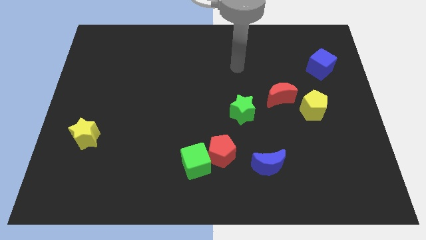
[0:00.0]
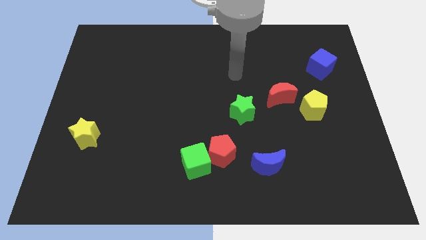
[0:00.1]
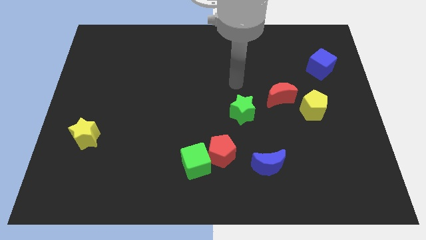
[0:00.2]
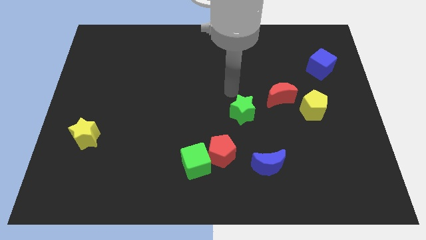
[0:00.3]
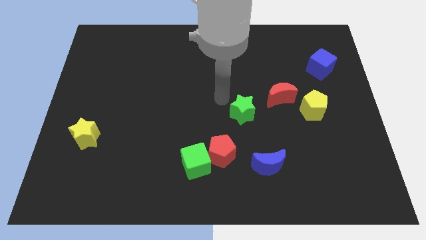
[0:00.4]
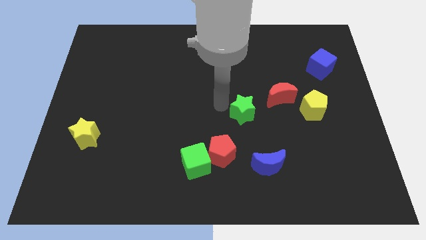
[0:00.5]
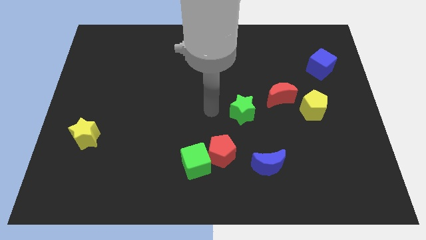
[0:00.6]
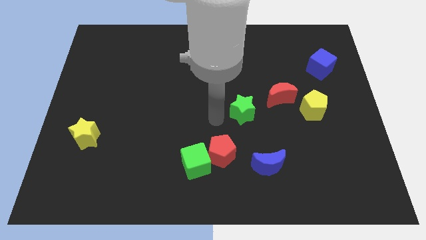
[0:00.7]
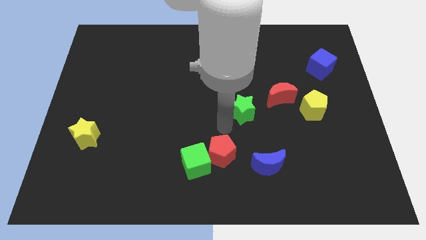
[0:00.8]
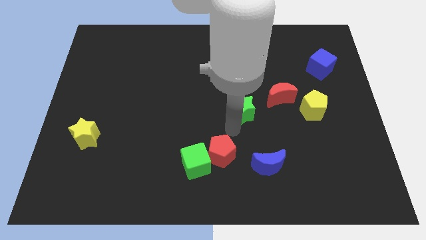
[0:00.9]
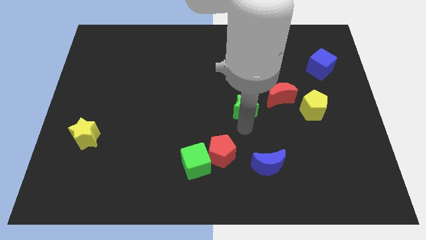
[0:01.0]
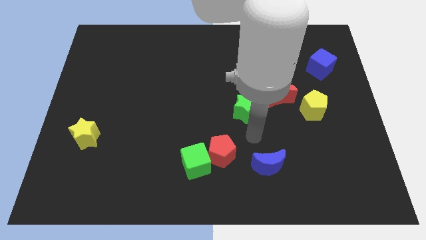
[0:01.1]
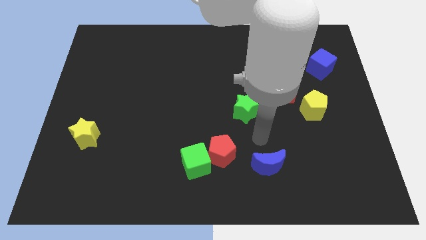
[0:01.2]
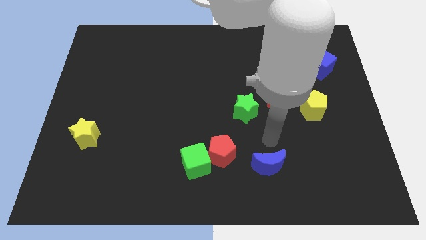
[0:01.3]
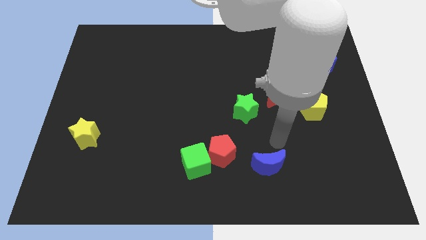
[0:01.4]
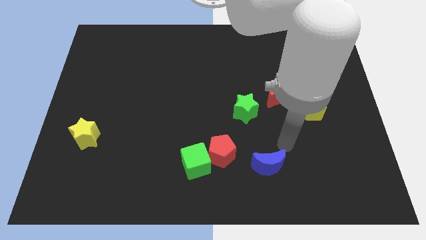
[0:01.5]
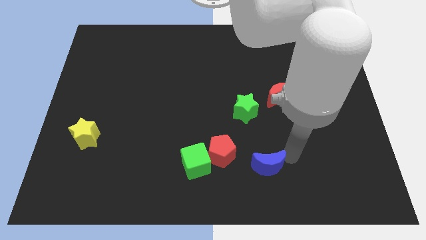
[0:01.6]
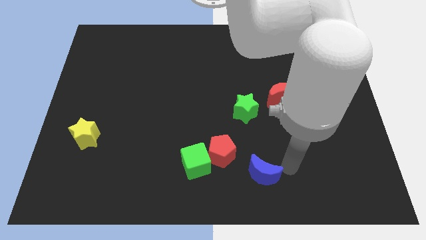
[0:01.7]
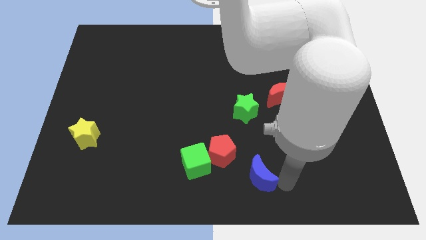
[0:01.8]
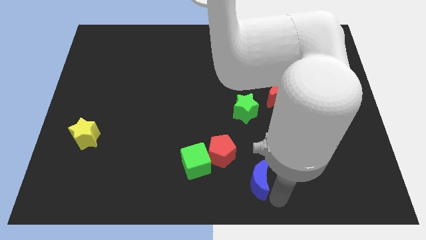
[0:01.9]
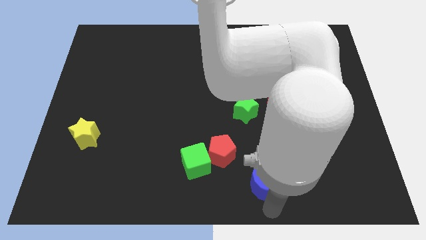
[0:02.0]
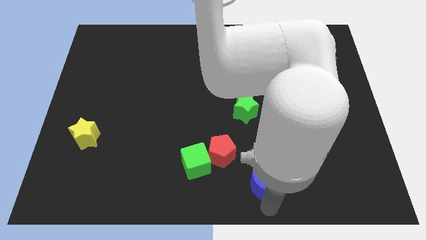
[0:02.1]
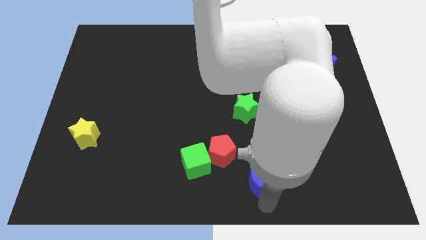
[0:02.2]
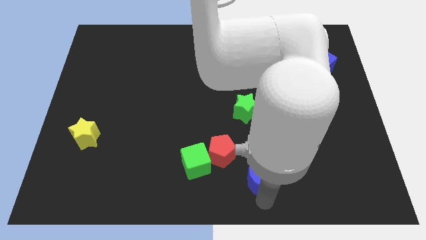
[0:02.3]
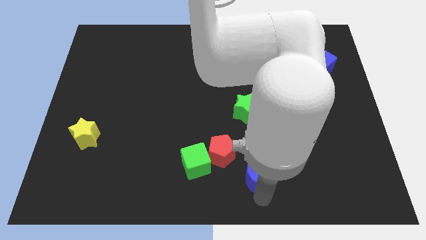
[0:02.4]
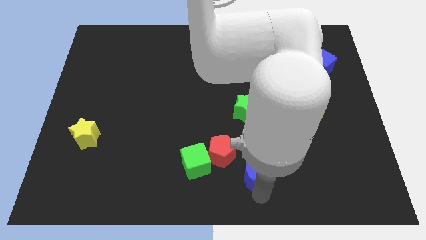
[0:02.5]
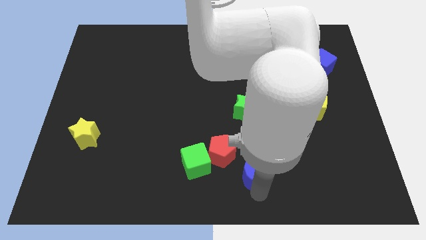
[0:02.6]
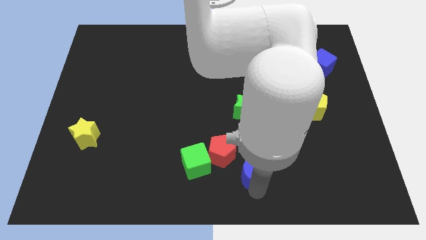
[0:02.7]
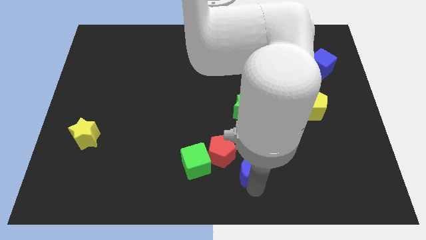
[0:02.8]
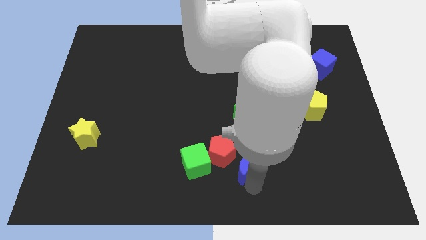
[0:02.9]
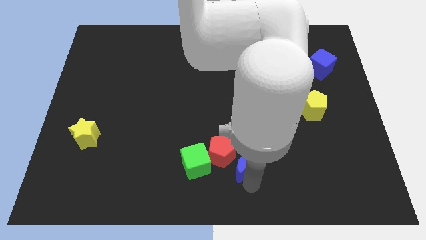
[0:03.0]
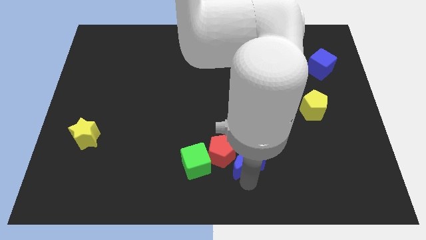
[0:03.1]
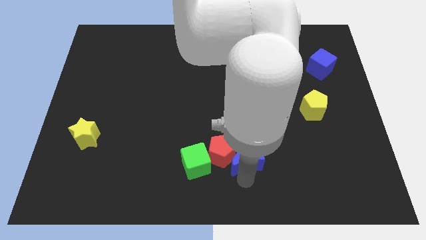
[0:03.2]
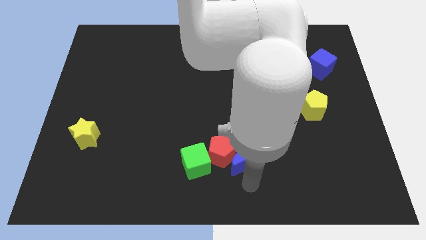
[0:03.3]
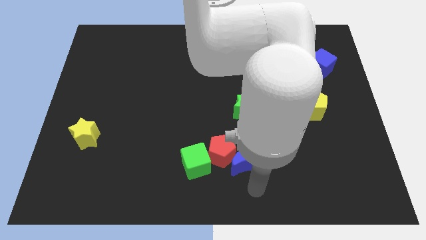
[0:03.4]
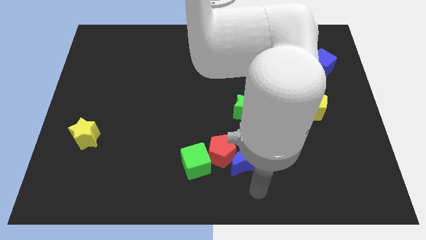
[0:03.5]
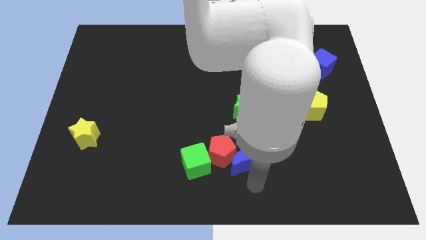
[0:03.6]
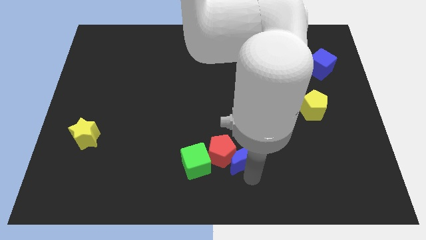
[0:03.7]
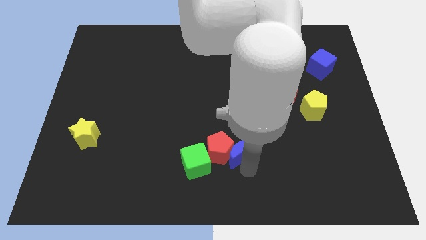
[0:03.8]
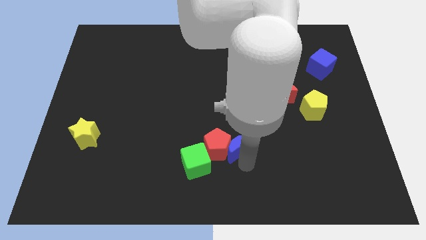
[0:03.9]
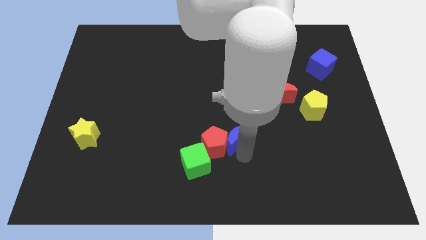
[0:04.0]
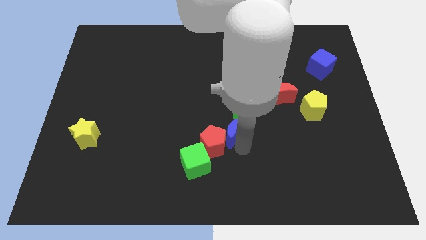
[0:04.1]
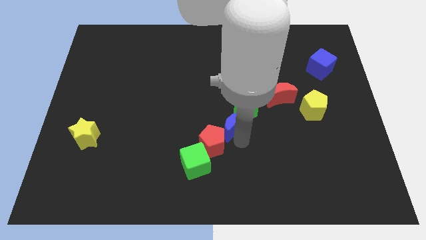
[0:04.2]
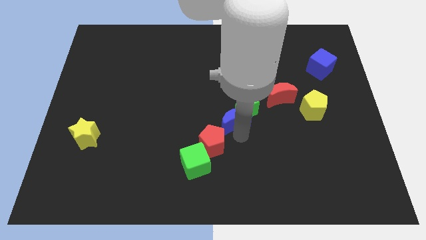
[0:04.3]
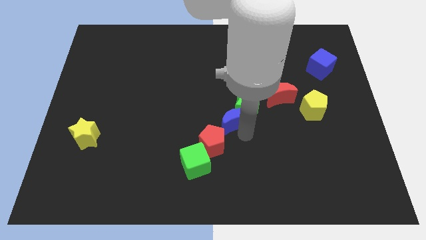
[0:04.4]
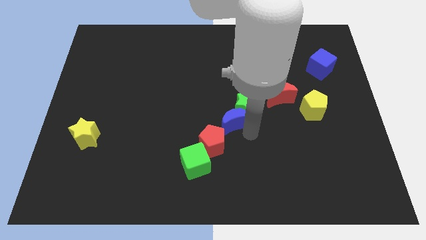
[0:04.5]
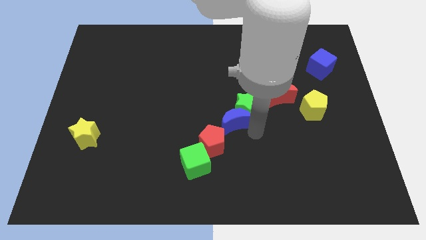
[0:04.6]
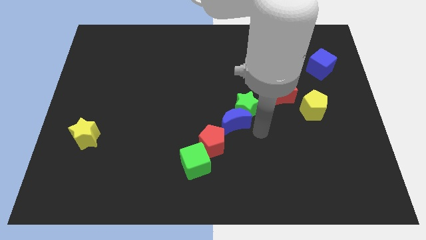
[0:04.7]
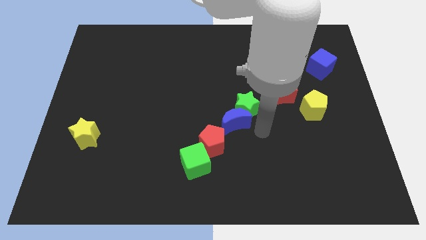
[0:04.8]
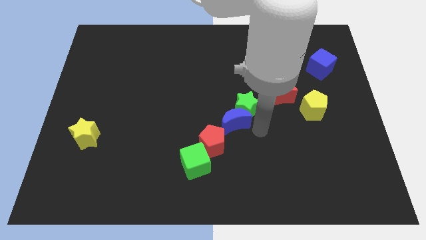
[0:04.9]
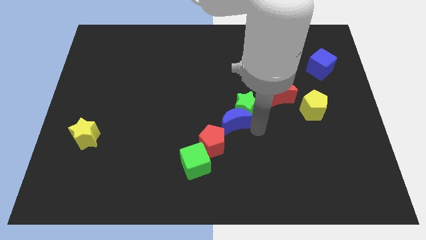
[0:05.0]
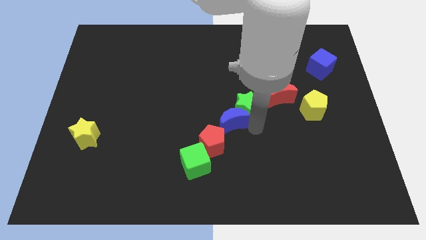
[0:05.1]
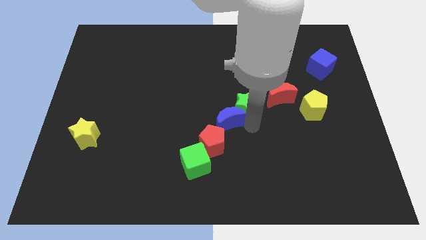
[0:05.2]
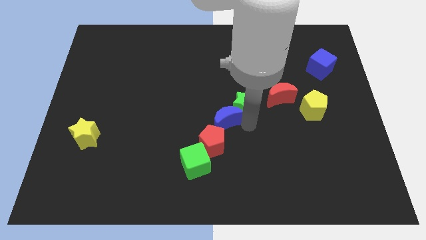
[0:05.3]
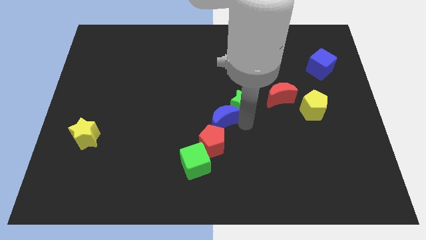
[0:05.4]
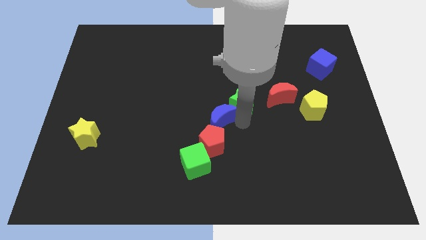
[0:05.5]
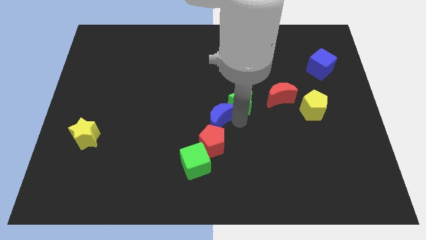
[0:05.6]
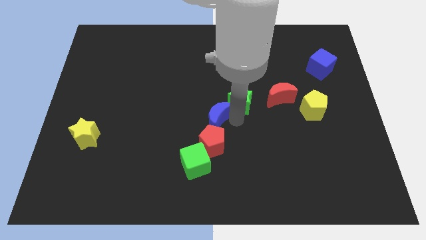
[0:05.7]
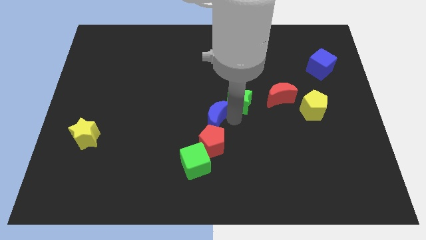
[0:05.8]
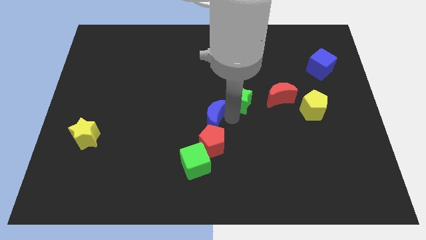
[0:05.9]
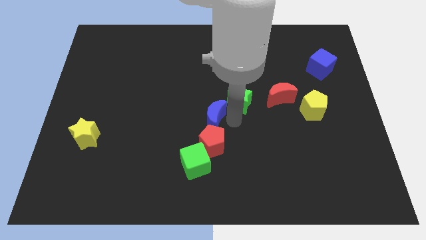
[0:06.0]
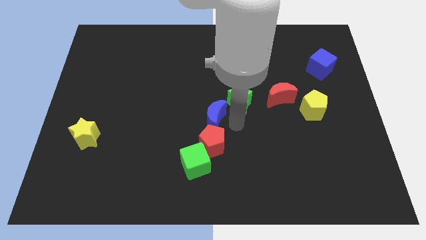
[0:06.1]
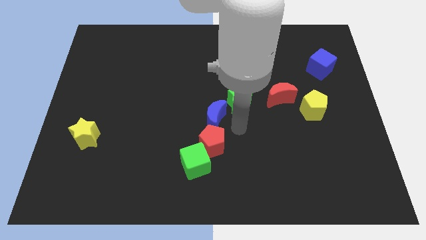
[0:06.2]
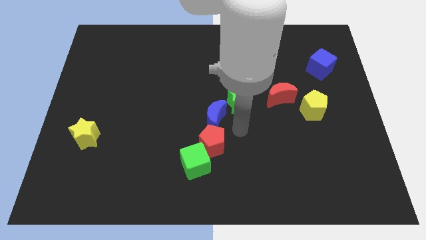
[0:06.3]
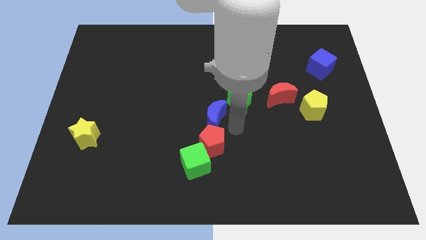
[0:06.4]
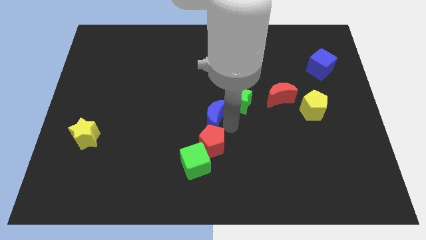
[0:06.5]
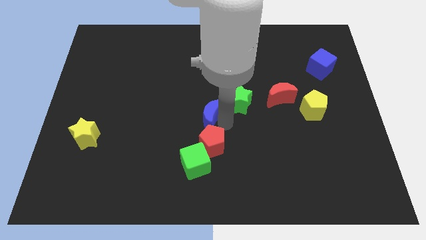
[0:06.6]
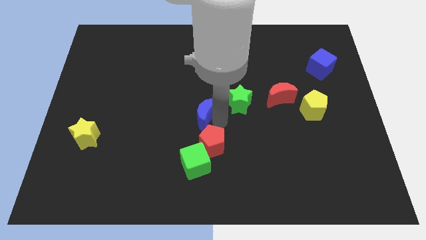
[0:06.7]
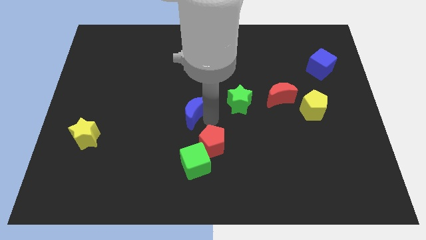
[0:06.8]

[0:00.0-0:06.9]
push the blue moon upwards and left

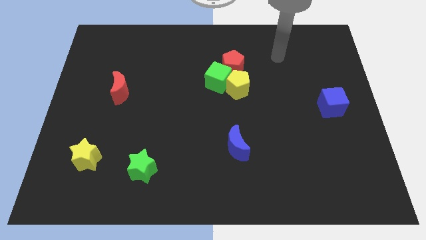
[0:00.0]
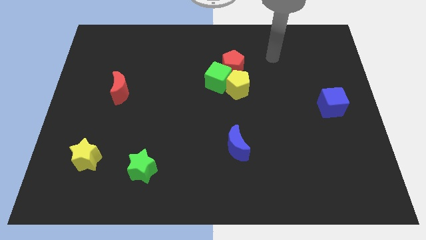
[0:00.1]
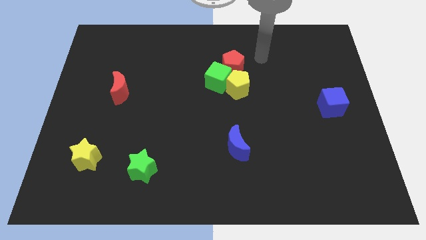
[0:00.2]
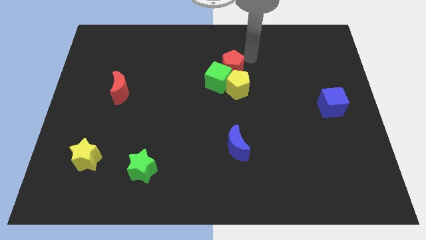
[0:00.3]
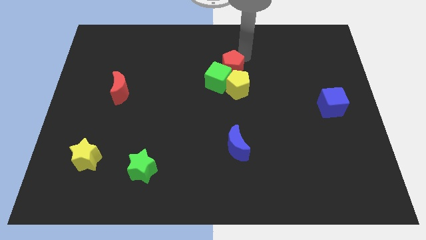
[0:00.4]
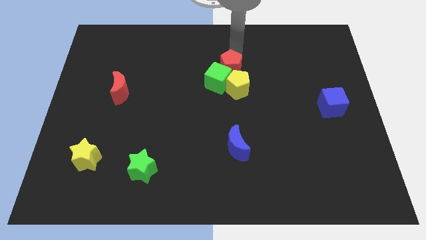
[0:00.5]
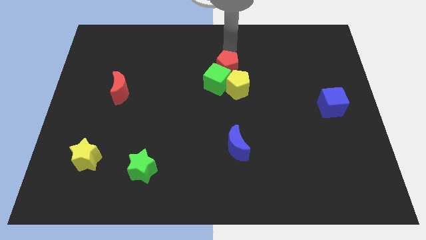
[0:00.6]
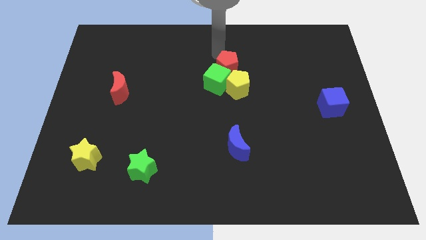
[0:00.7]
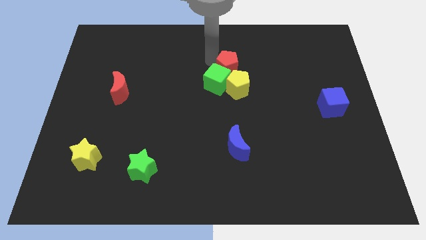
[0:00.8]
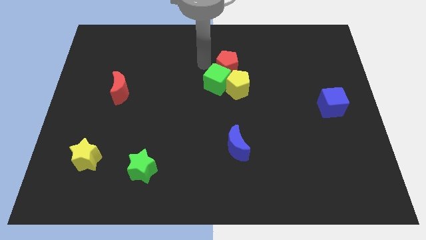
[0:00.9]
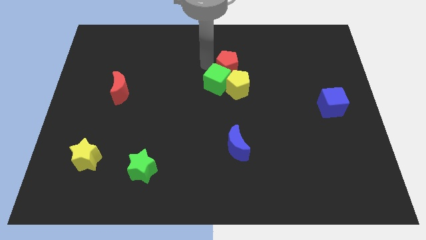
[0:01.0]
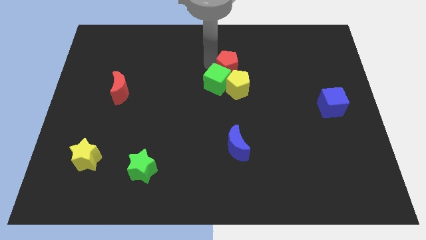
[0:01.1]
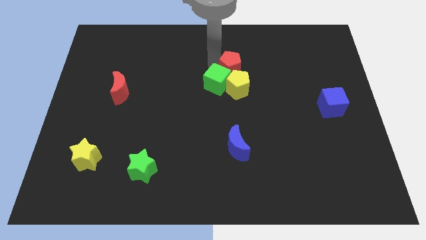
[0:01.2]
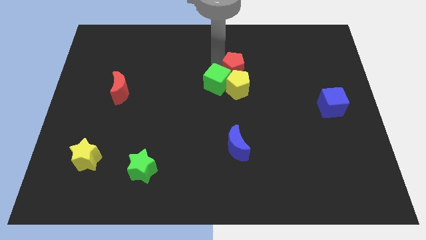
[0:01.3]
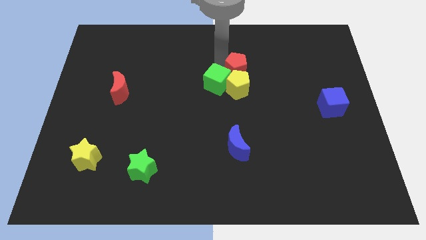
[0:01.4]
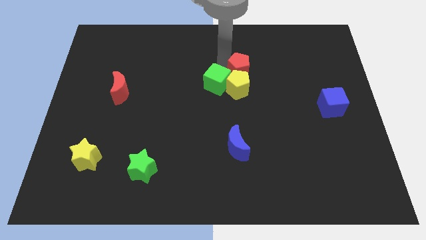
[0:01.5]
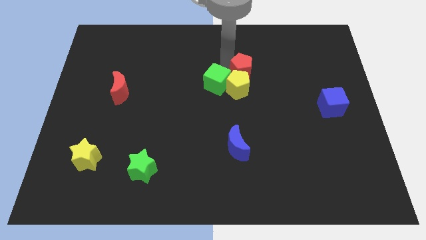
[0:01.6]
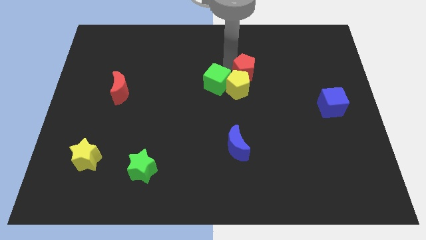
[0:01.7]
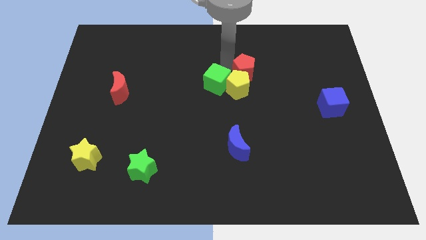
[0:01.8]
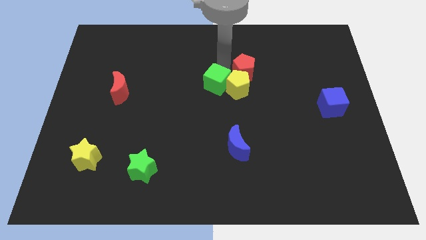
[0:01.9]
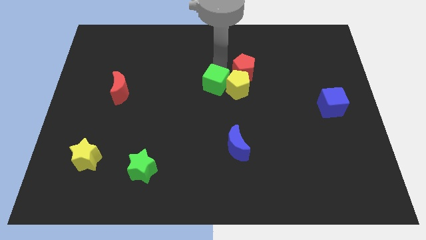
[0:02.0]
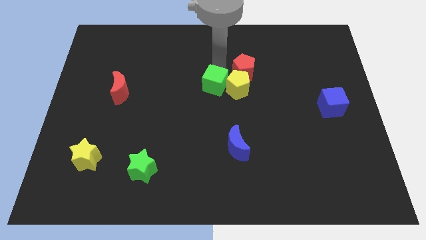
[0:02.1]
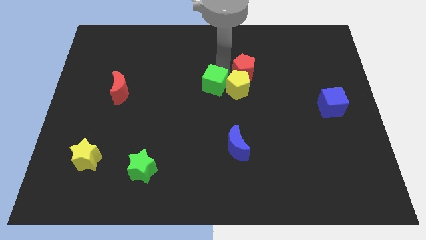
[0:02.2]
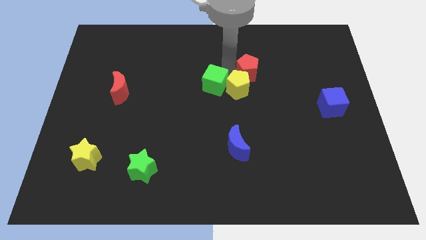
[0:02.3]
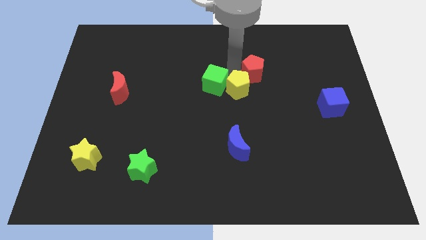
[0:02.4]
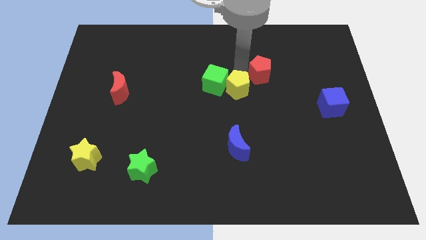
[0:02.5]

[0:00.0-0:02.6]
push the red pentagon right slightly
